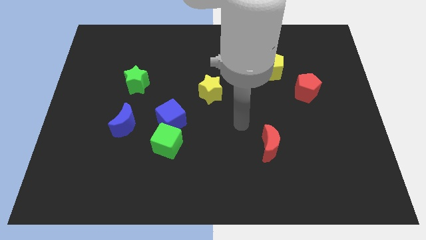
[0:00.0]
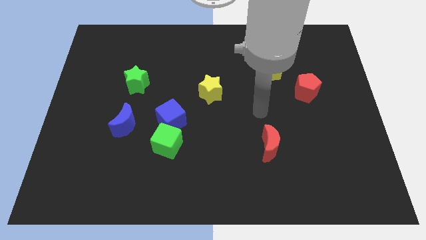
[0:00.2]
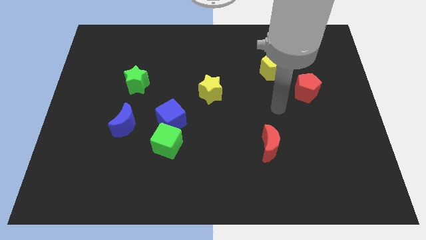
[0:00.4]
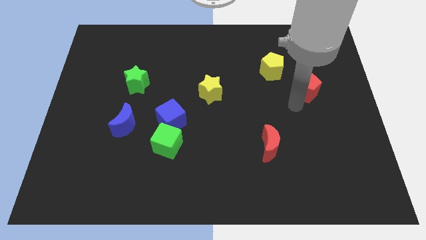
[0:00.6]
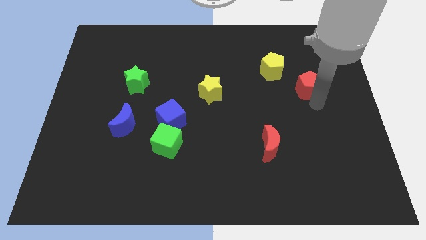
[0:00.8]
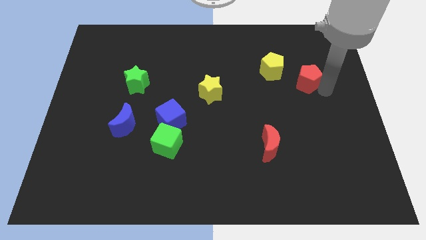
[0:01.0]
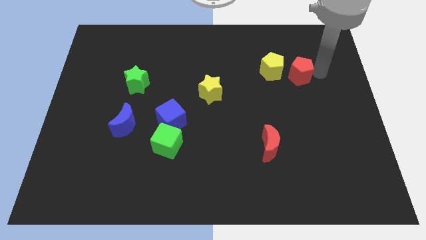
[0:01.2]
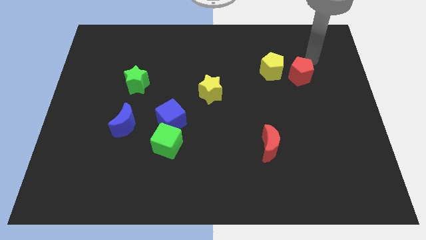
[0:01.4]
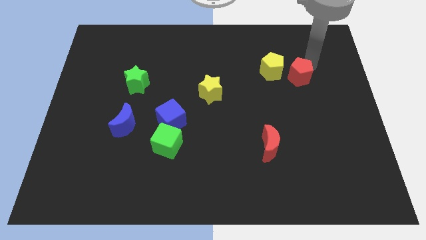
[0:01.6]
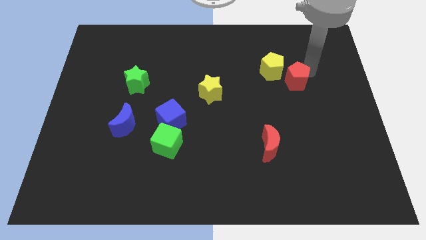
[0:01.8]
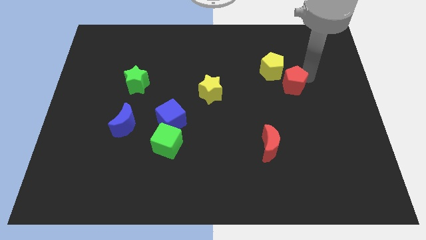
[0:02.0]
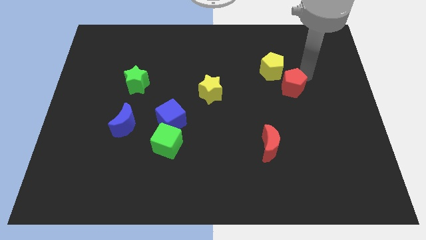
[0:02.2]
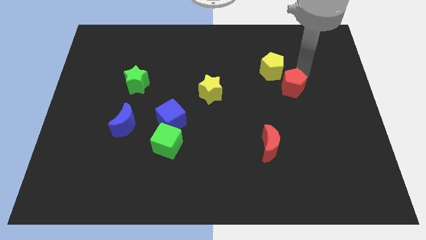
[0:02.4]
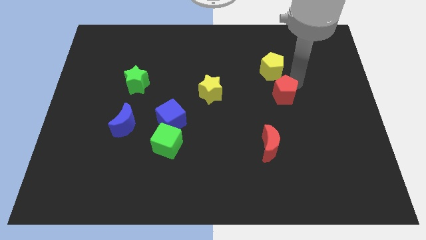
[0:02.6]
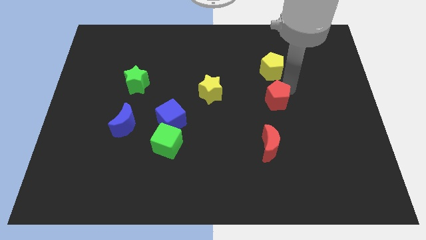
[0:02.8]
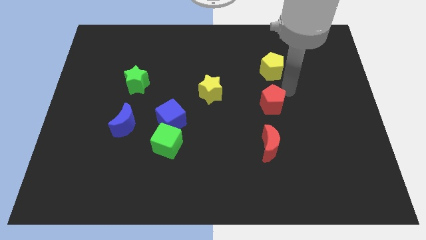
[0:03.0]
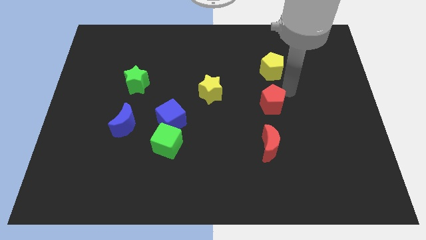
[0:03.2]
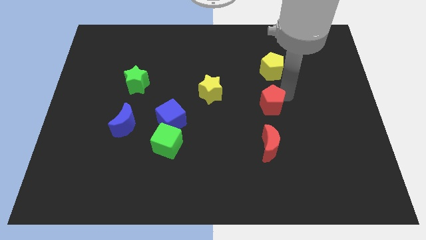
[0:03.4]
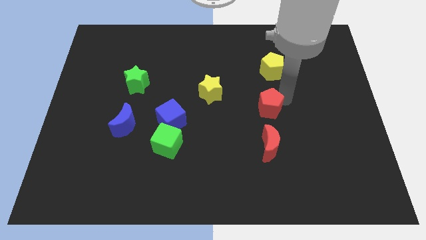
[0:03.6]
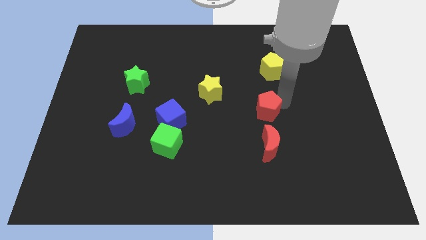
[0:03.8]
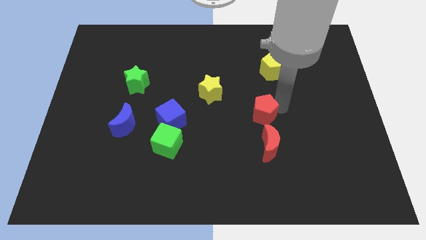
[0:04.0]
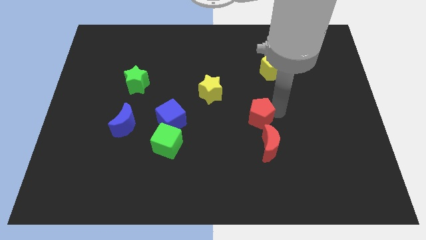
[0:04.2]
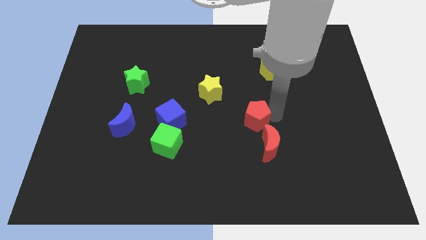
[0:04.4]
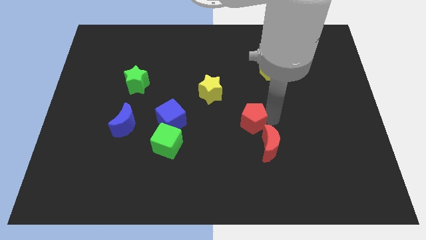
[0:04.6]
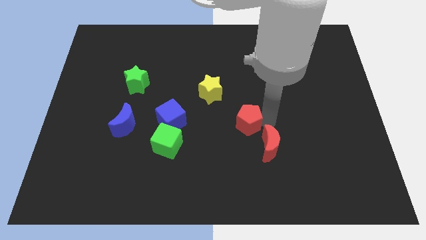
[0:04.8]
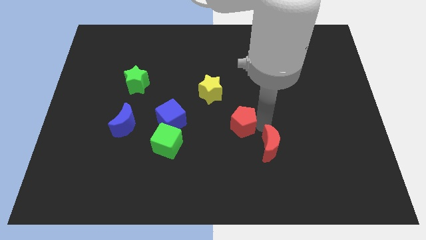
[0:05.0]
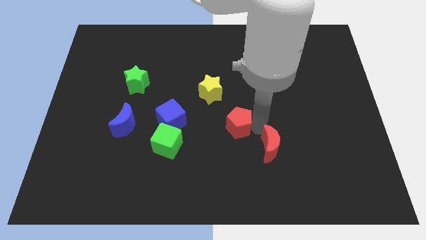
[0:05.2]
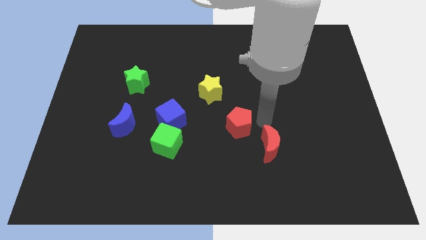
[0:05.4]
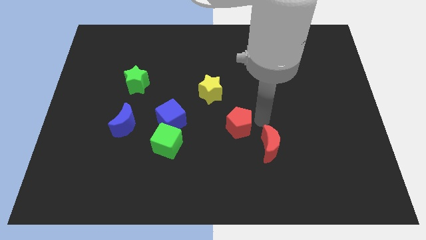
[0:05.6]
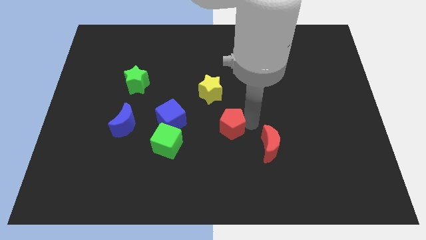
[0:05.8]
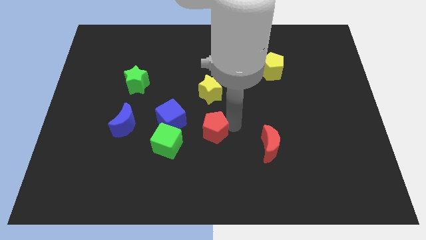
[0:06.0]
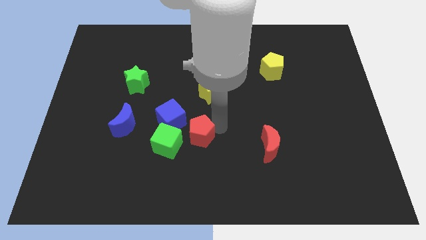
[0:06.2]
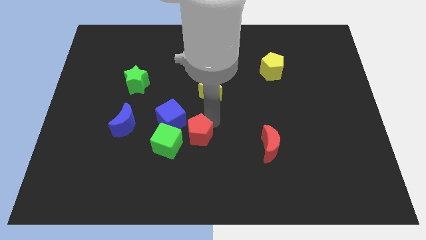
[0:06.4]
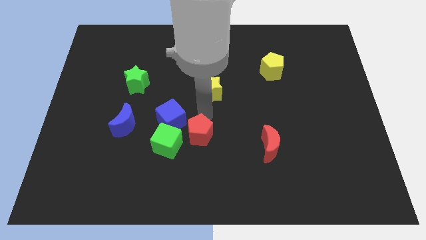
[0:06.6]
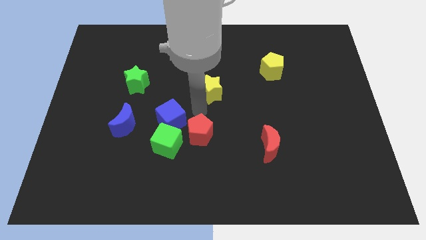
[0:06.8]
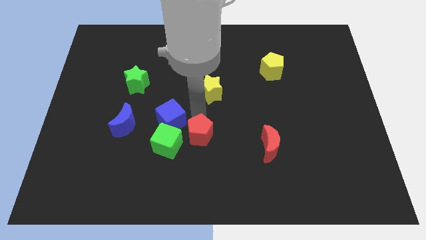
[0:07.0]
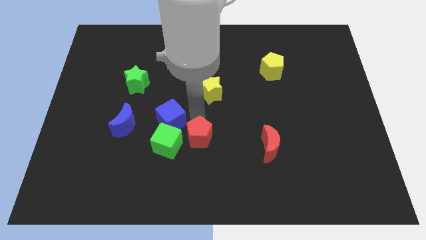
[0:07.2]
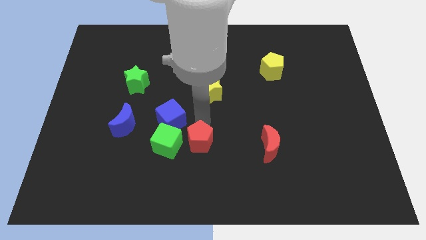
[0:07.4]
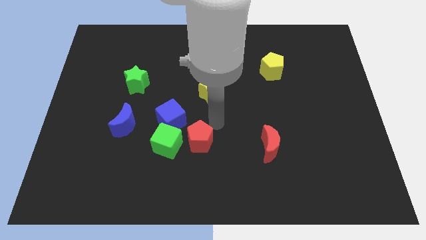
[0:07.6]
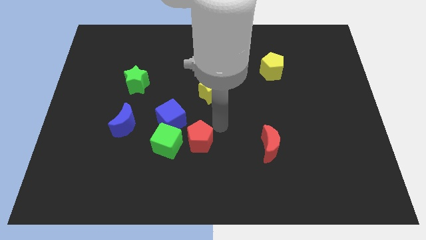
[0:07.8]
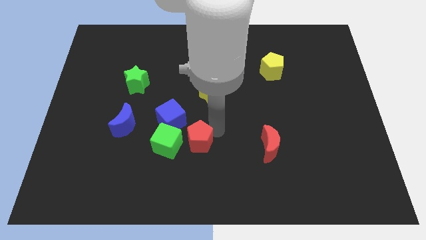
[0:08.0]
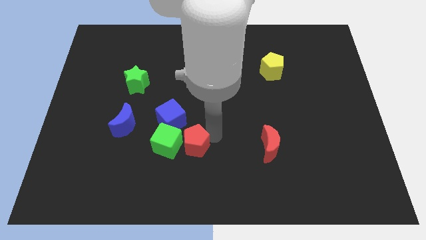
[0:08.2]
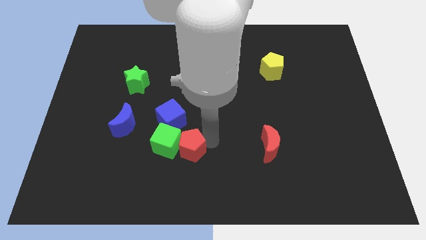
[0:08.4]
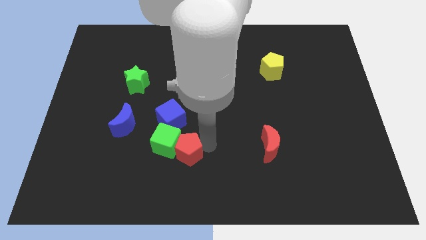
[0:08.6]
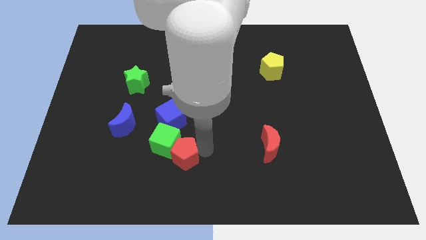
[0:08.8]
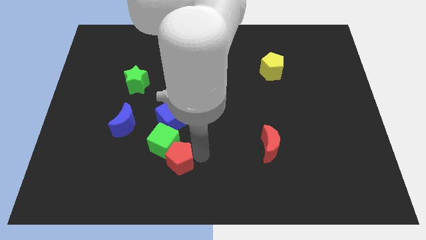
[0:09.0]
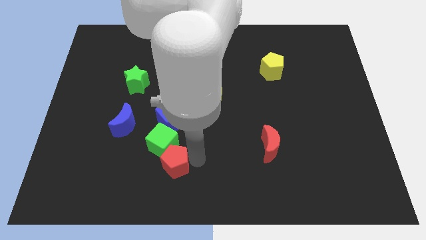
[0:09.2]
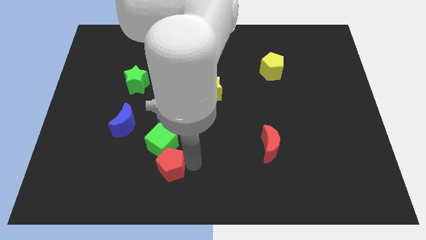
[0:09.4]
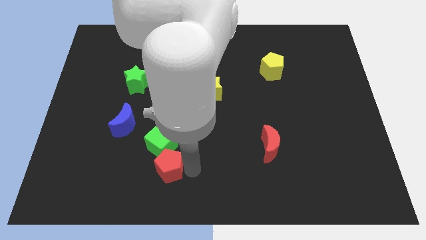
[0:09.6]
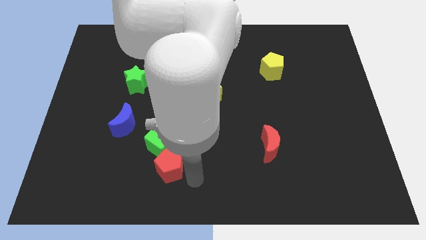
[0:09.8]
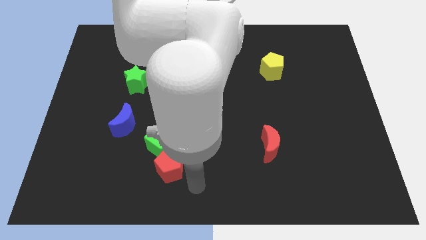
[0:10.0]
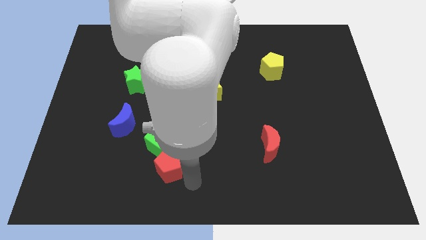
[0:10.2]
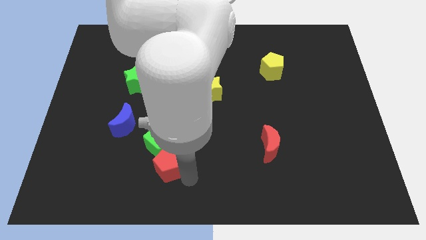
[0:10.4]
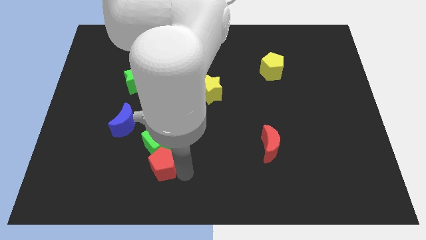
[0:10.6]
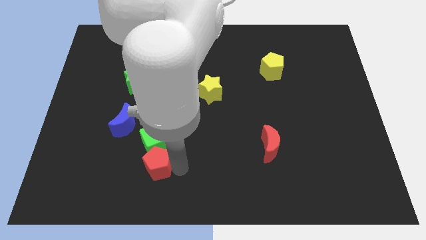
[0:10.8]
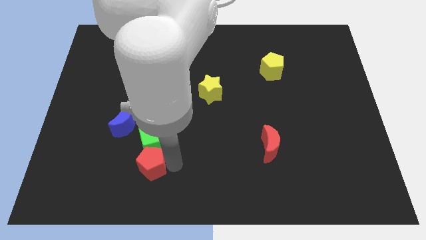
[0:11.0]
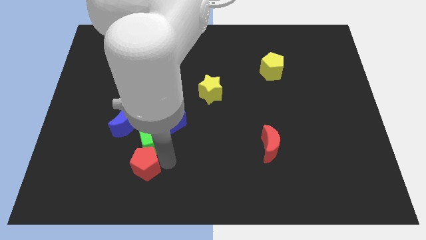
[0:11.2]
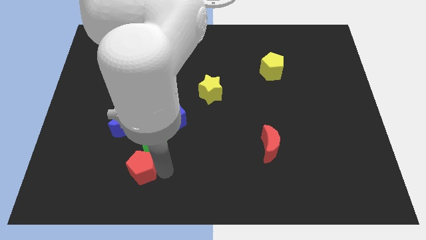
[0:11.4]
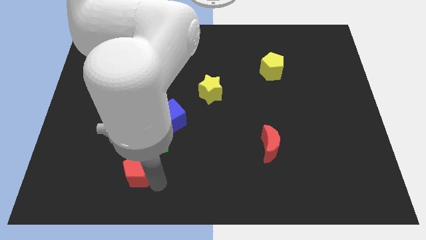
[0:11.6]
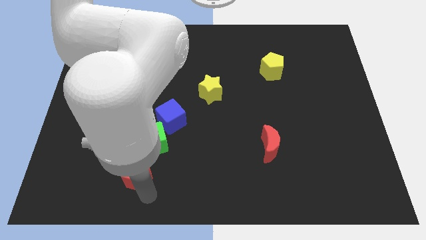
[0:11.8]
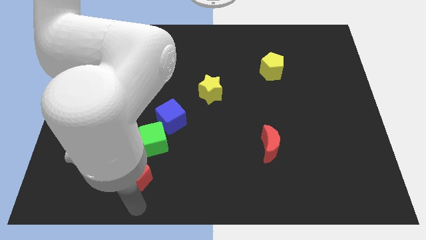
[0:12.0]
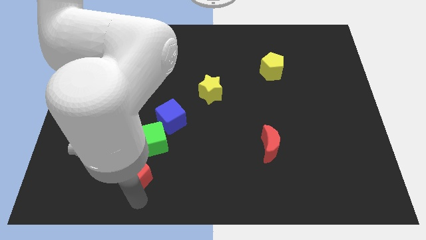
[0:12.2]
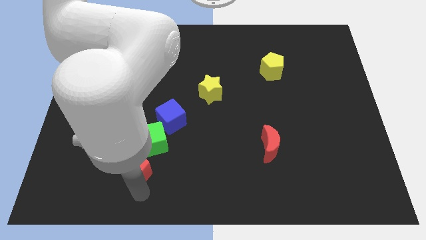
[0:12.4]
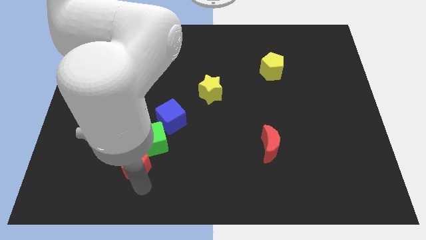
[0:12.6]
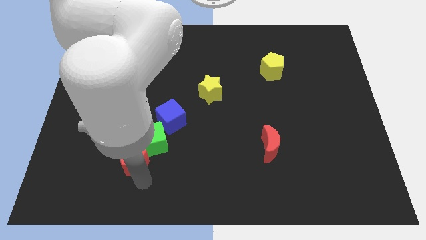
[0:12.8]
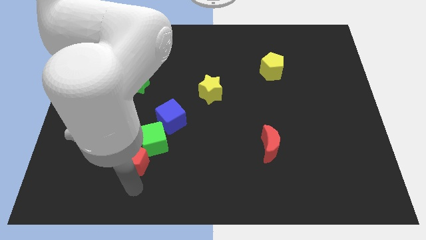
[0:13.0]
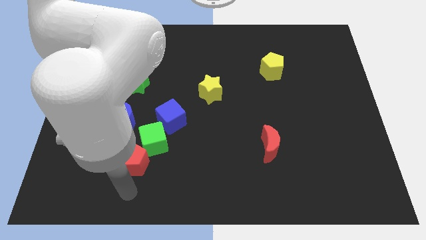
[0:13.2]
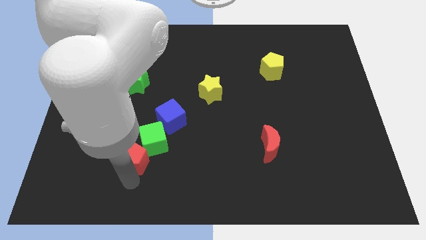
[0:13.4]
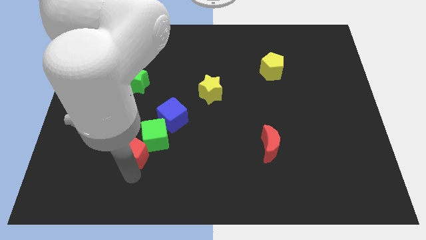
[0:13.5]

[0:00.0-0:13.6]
put the red pentagon left of the green cube
